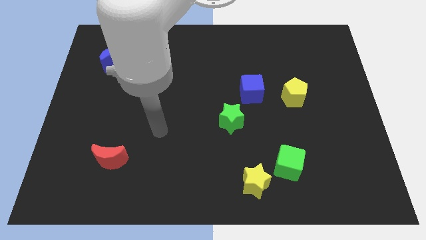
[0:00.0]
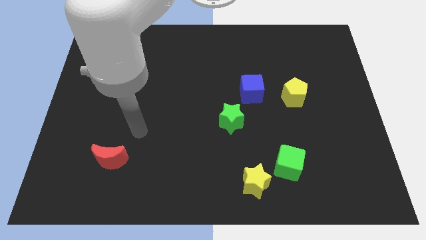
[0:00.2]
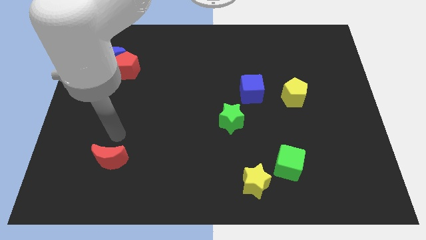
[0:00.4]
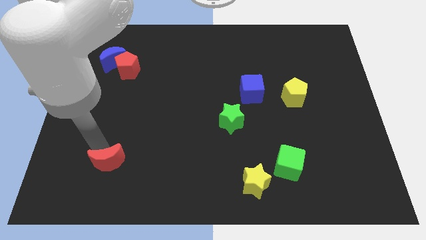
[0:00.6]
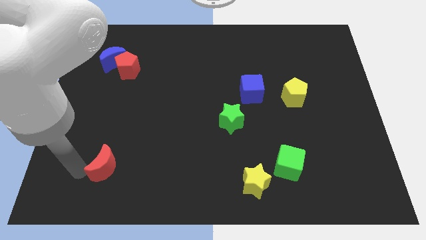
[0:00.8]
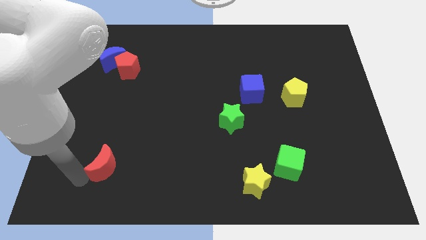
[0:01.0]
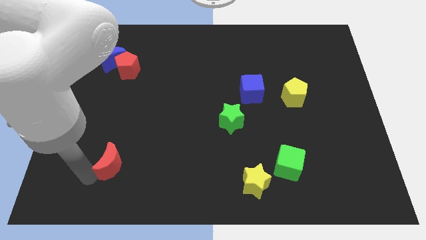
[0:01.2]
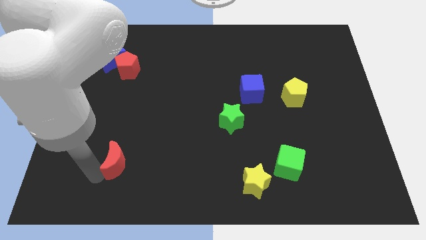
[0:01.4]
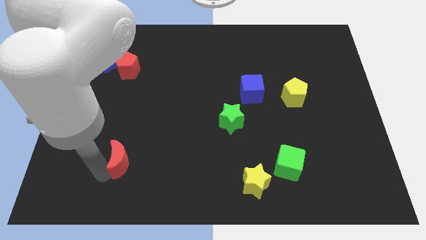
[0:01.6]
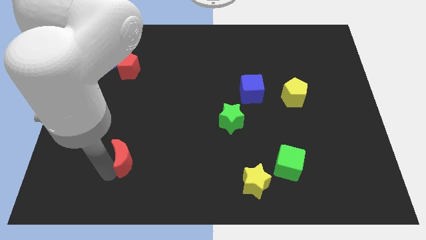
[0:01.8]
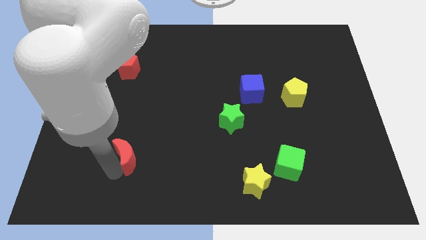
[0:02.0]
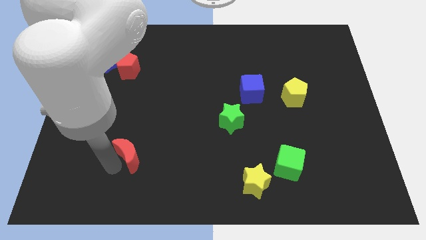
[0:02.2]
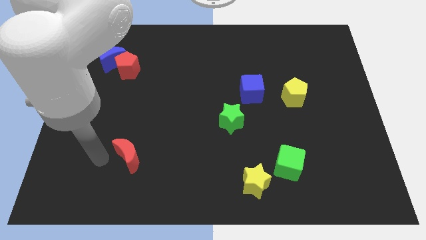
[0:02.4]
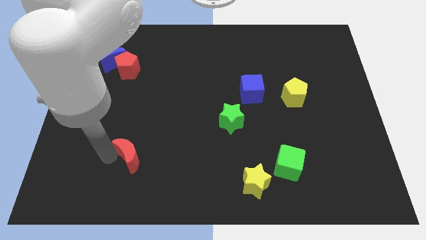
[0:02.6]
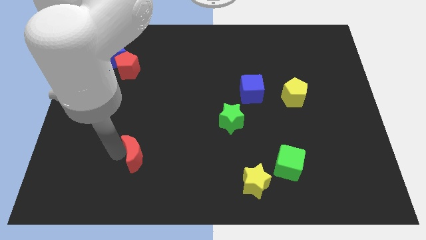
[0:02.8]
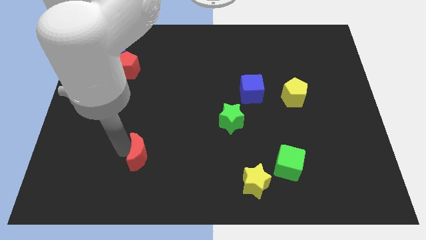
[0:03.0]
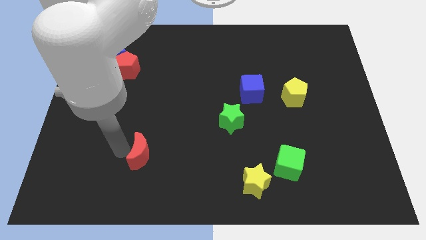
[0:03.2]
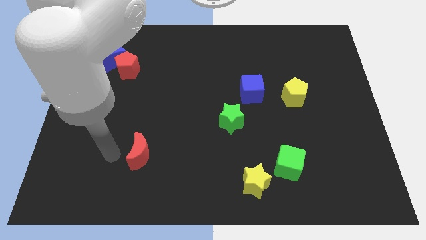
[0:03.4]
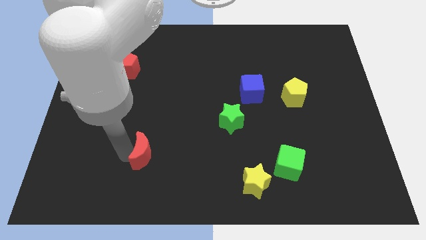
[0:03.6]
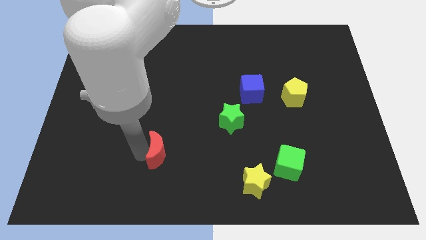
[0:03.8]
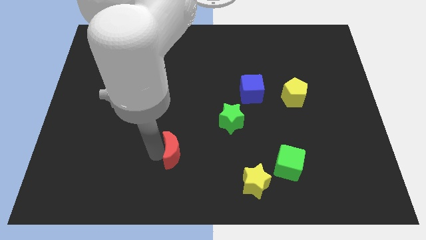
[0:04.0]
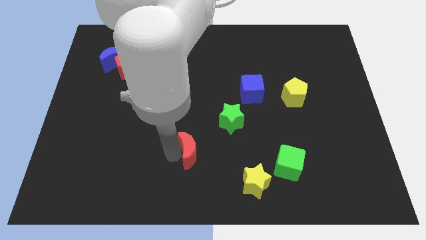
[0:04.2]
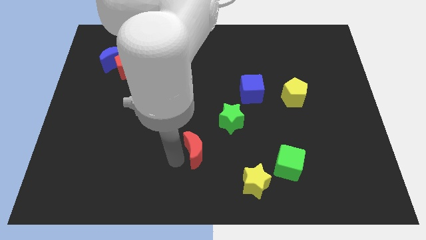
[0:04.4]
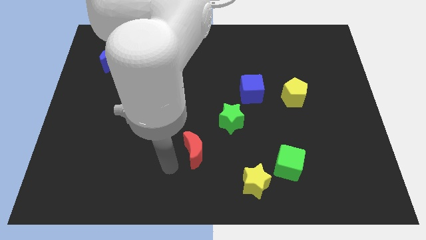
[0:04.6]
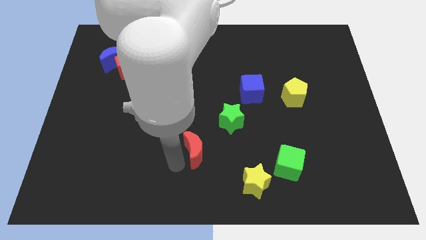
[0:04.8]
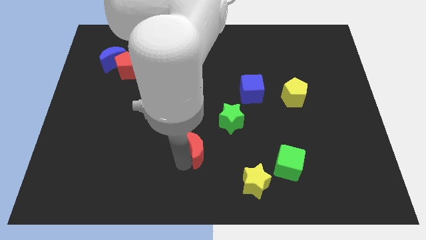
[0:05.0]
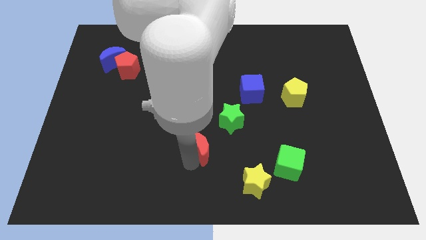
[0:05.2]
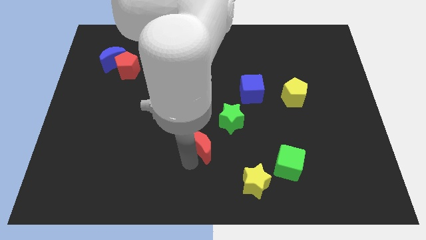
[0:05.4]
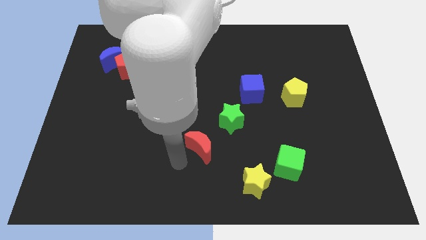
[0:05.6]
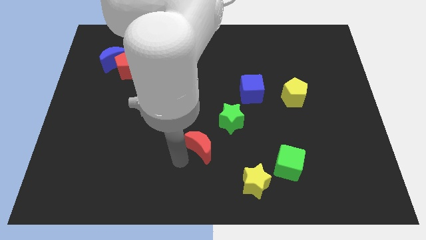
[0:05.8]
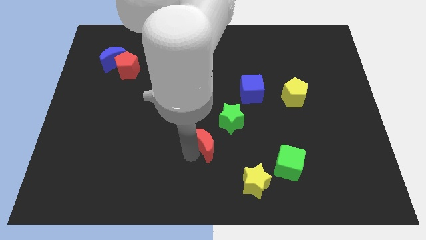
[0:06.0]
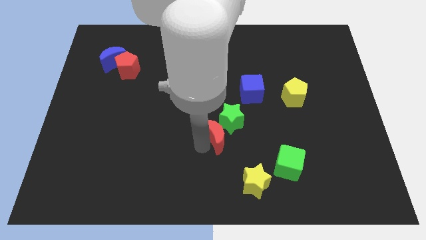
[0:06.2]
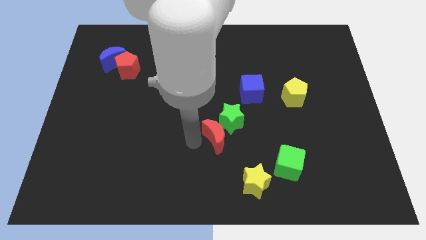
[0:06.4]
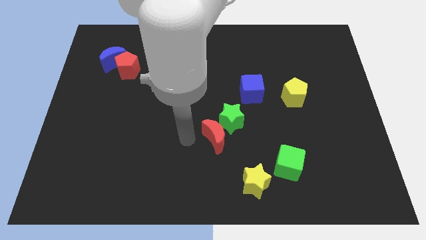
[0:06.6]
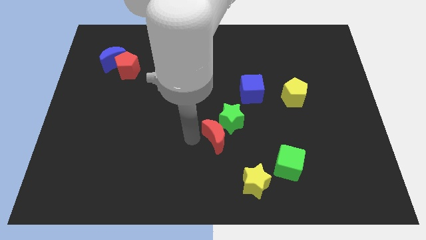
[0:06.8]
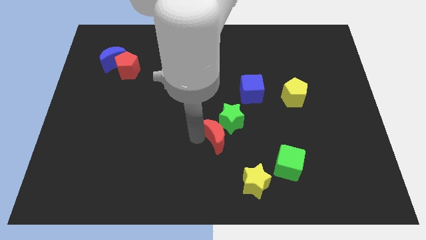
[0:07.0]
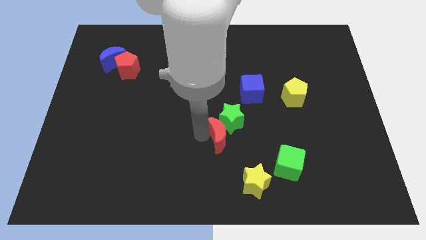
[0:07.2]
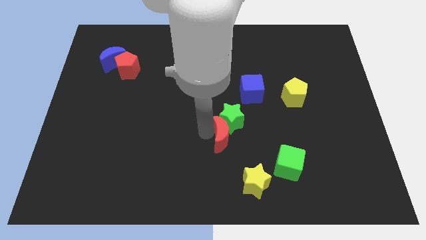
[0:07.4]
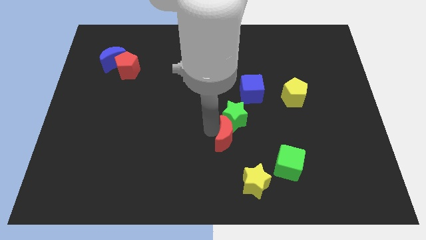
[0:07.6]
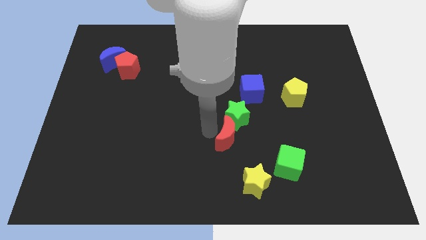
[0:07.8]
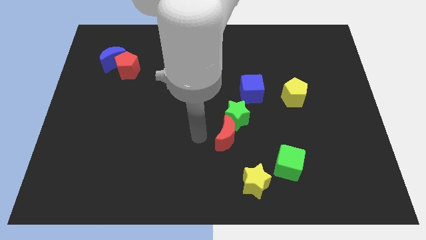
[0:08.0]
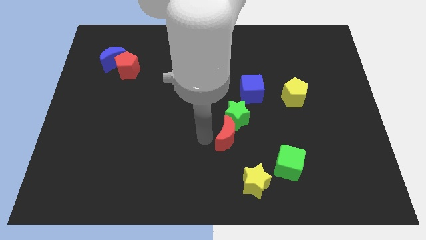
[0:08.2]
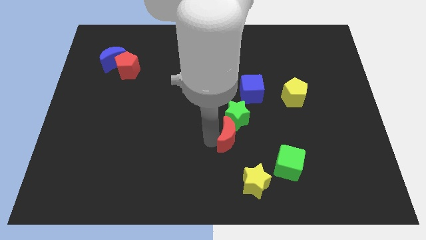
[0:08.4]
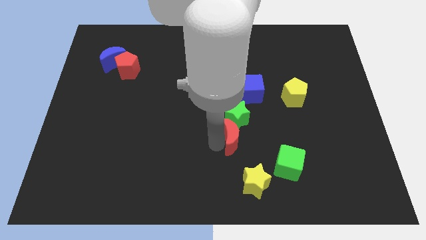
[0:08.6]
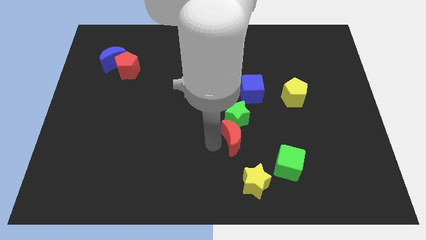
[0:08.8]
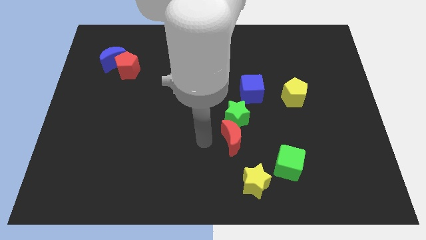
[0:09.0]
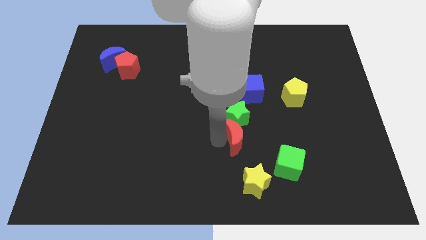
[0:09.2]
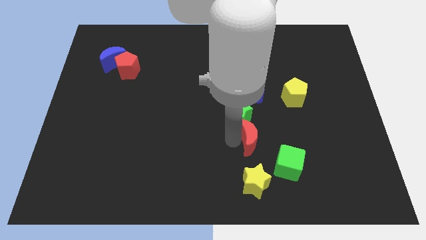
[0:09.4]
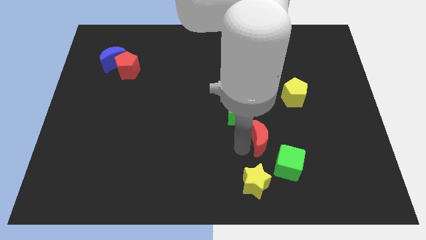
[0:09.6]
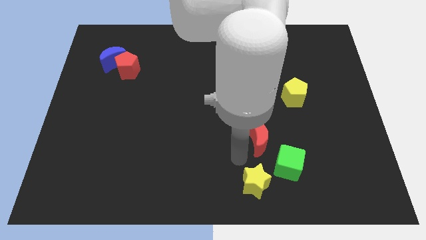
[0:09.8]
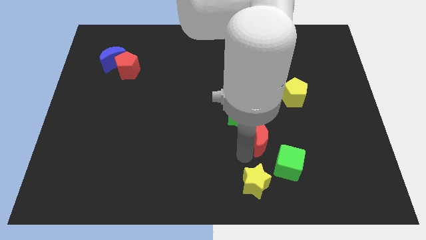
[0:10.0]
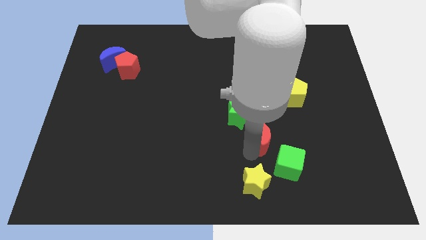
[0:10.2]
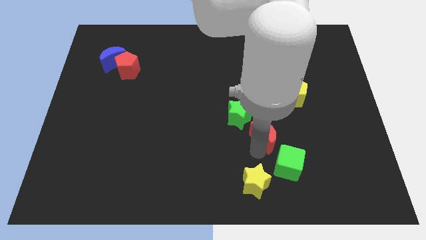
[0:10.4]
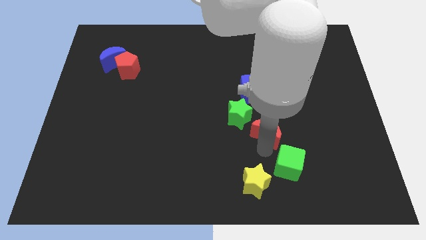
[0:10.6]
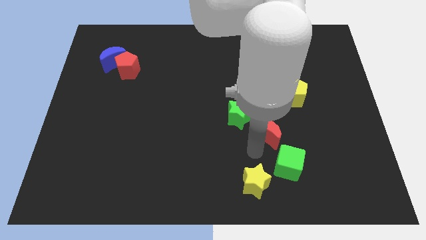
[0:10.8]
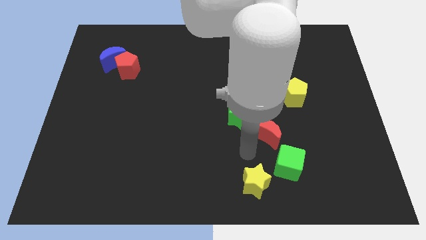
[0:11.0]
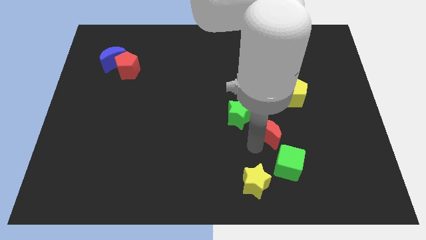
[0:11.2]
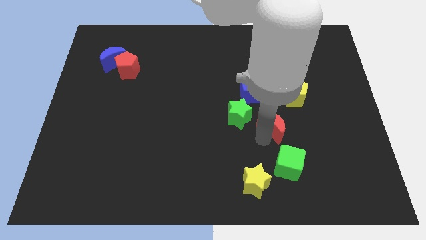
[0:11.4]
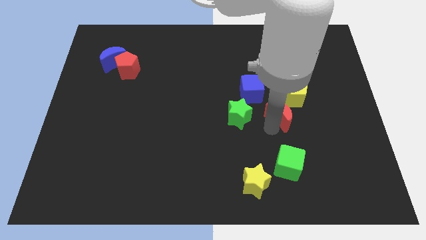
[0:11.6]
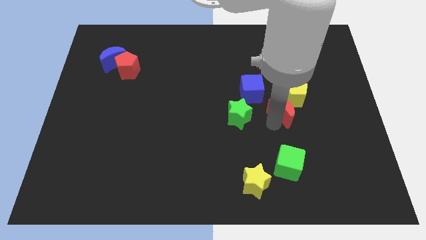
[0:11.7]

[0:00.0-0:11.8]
slide the red moon next to the yellow pentagon

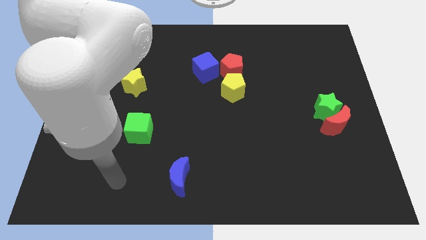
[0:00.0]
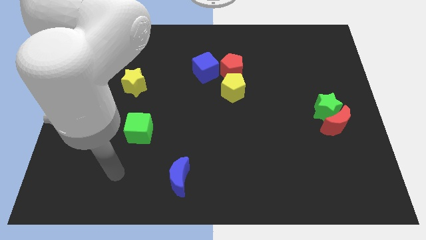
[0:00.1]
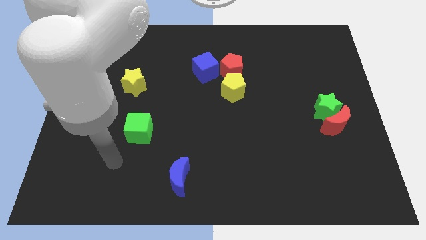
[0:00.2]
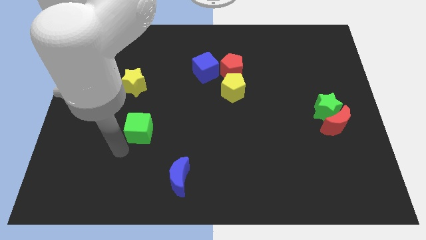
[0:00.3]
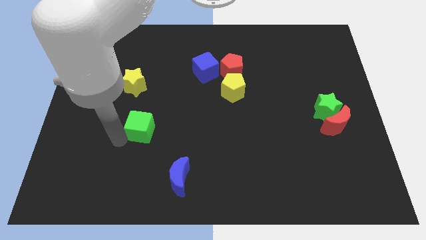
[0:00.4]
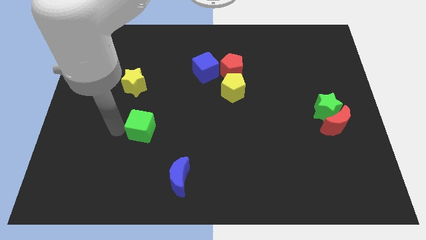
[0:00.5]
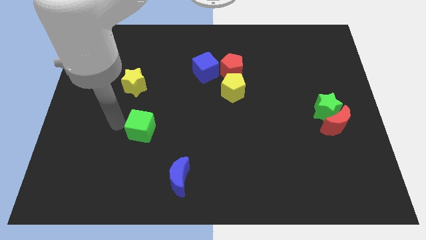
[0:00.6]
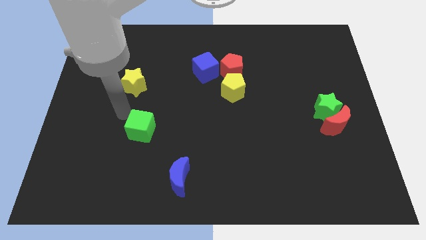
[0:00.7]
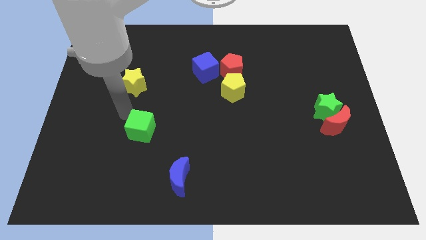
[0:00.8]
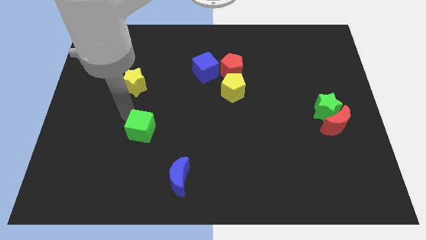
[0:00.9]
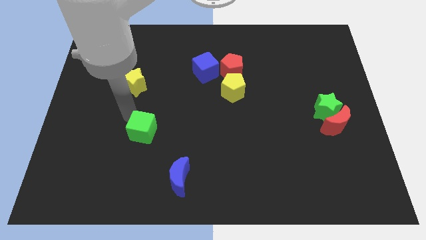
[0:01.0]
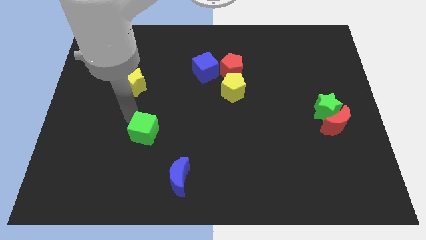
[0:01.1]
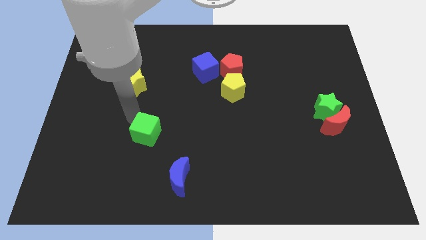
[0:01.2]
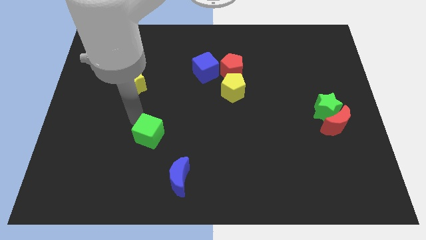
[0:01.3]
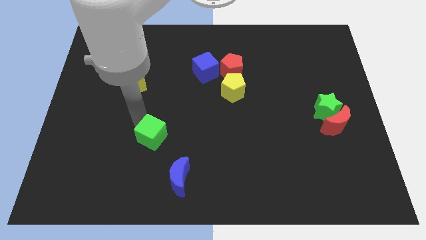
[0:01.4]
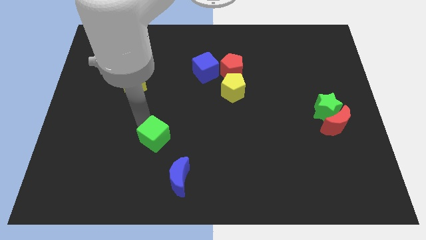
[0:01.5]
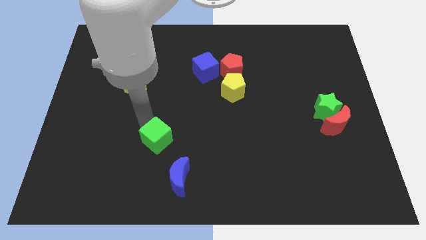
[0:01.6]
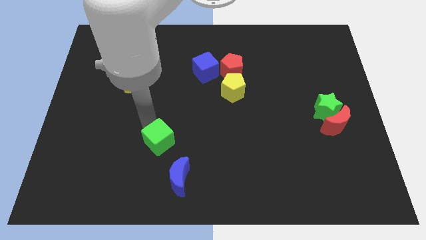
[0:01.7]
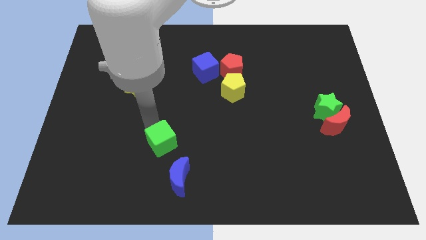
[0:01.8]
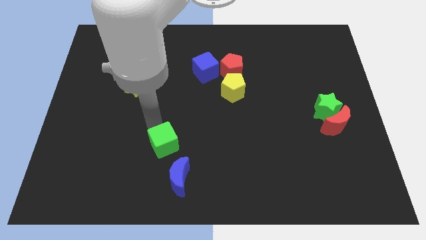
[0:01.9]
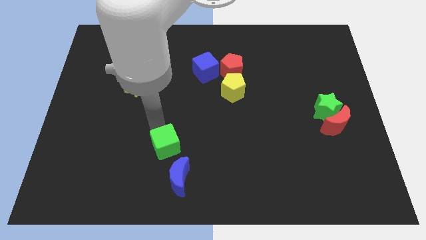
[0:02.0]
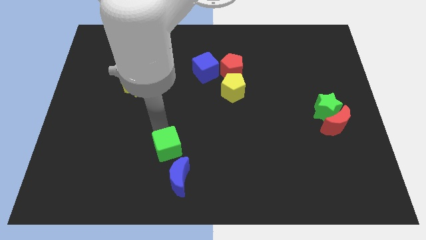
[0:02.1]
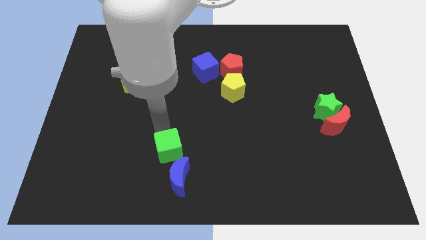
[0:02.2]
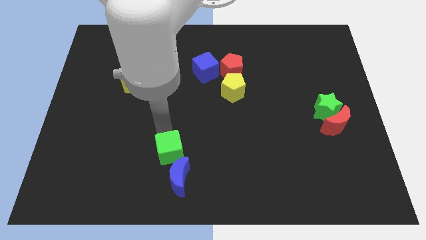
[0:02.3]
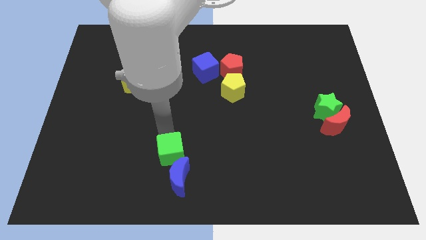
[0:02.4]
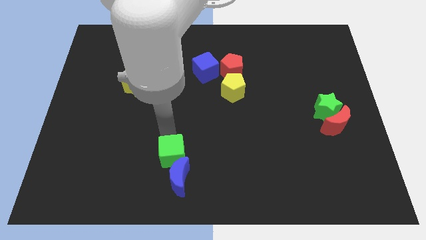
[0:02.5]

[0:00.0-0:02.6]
put the green cube next to the blue moon
